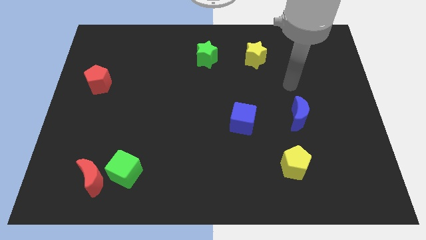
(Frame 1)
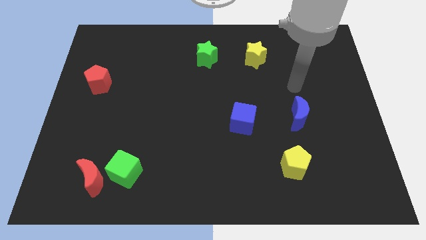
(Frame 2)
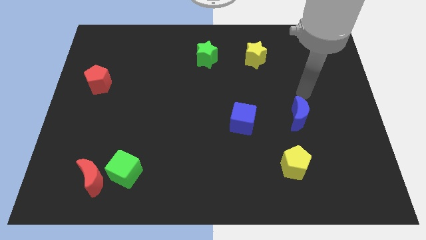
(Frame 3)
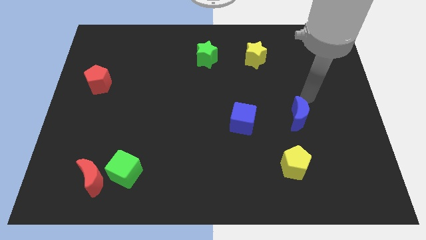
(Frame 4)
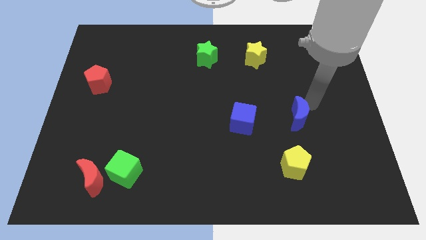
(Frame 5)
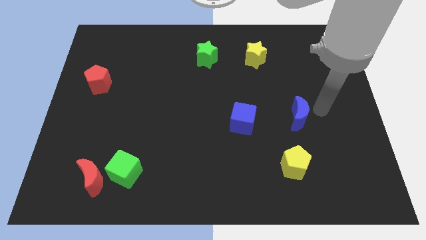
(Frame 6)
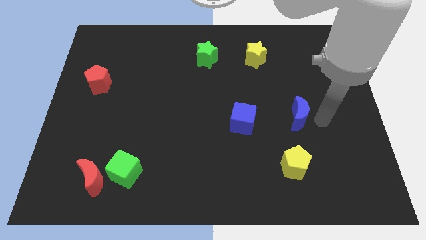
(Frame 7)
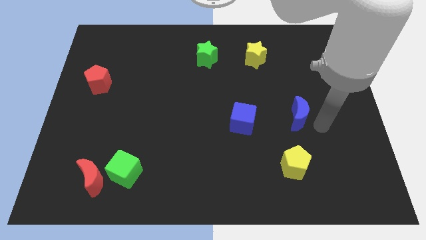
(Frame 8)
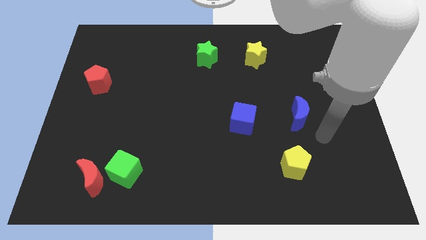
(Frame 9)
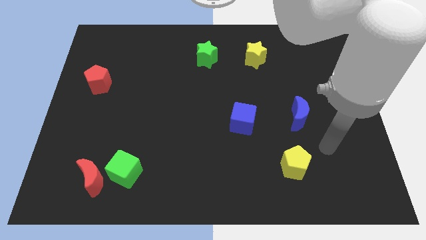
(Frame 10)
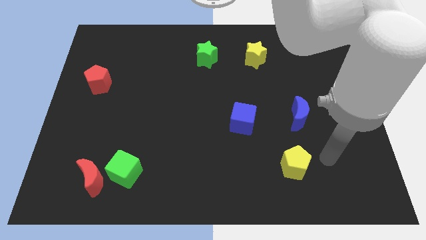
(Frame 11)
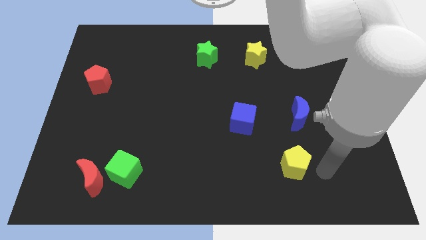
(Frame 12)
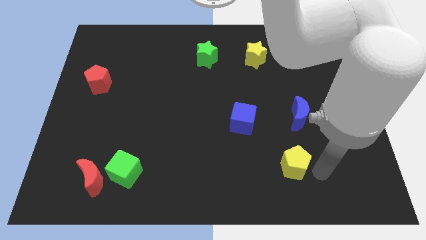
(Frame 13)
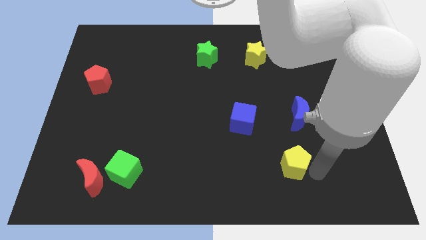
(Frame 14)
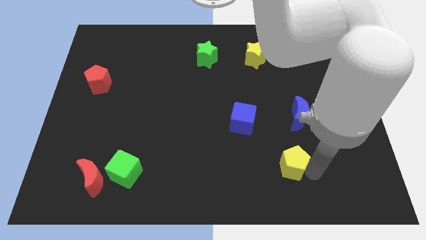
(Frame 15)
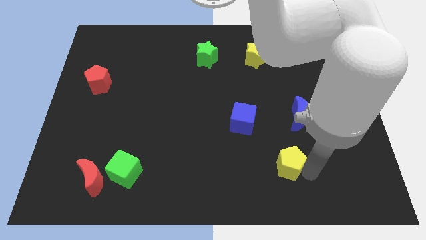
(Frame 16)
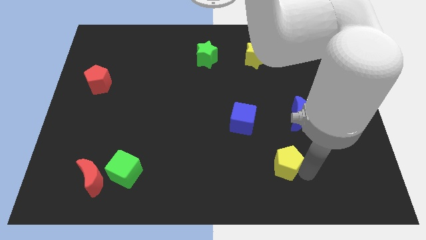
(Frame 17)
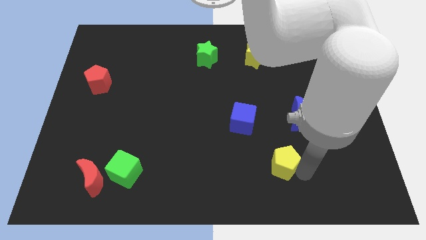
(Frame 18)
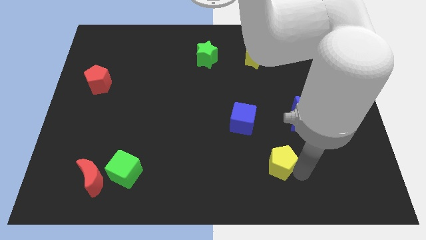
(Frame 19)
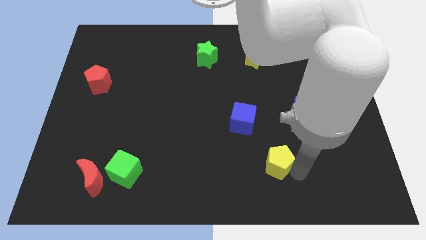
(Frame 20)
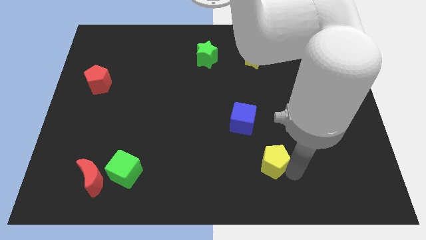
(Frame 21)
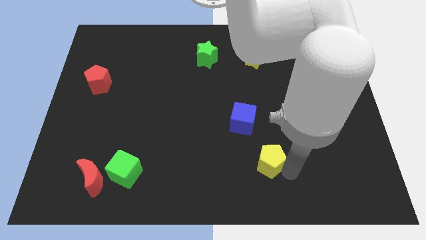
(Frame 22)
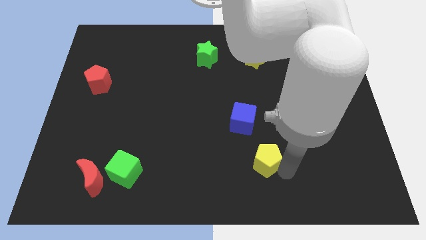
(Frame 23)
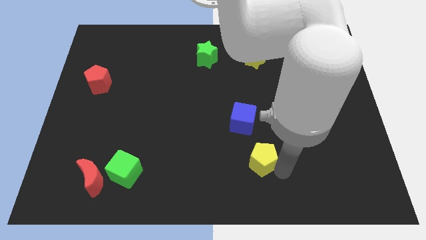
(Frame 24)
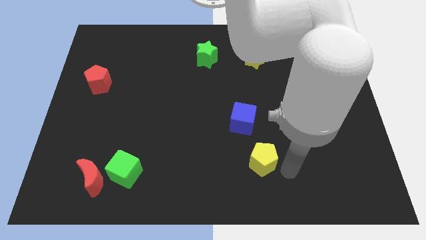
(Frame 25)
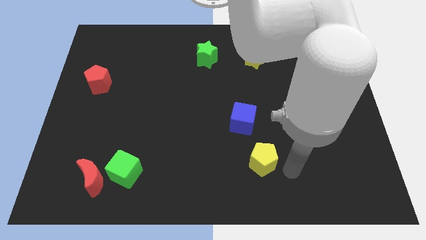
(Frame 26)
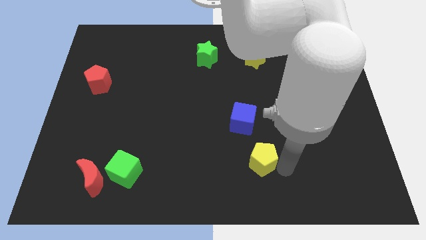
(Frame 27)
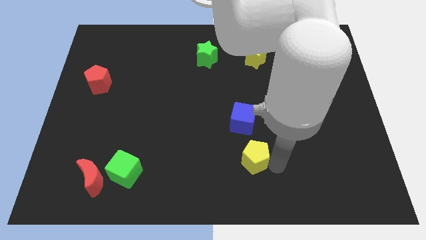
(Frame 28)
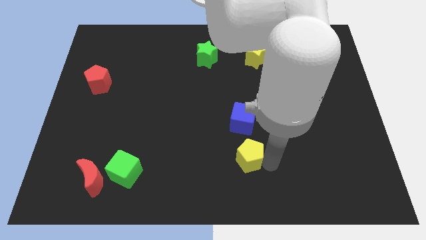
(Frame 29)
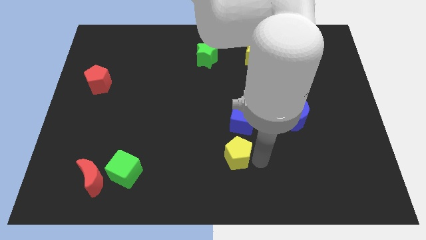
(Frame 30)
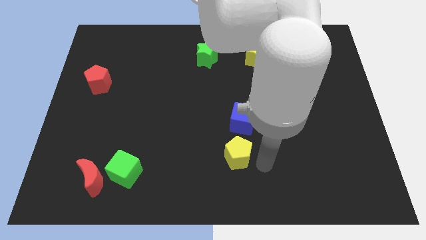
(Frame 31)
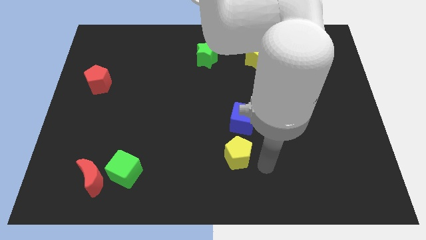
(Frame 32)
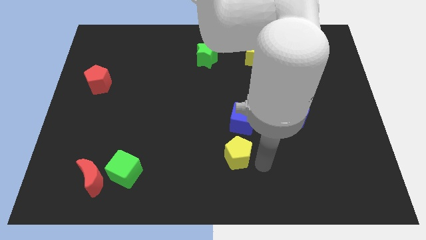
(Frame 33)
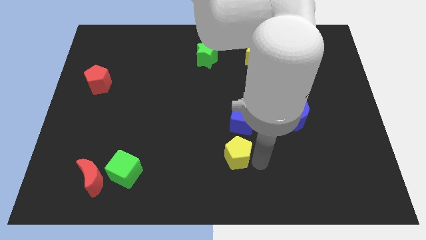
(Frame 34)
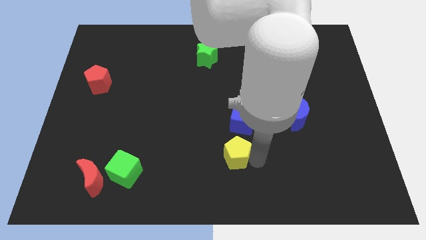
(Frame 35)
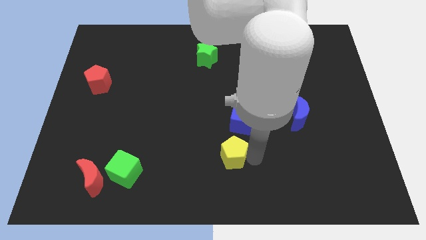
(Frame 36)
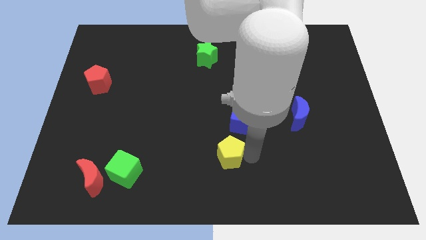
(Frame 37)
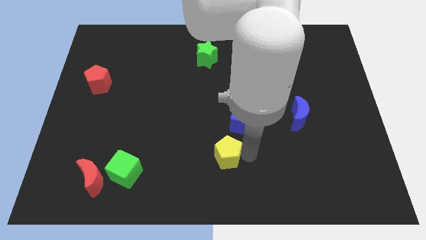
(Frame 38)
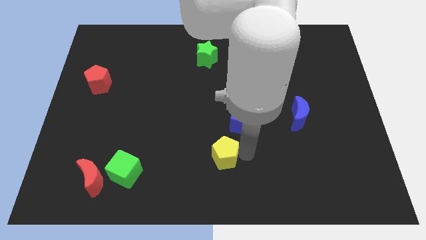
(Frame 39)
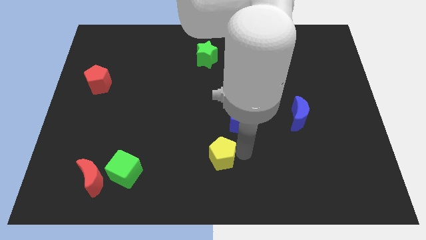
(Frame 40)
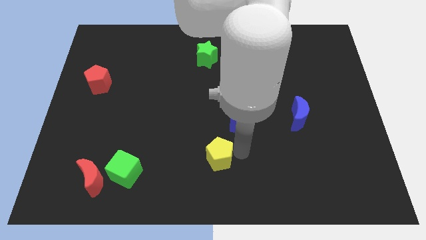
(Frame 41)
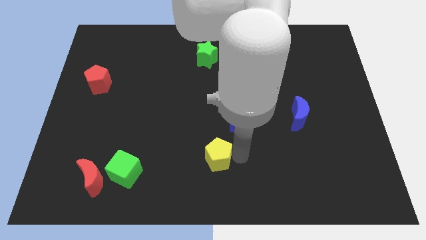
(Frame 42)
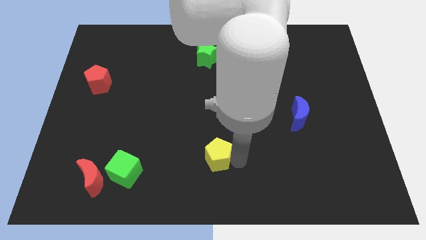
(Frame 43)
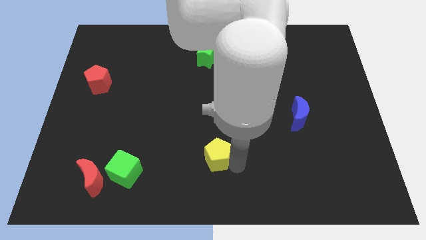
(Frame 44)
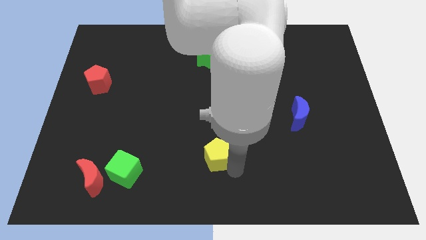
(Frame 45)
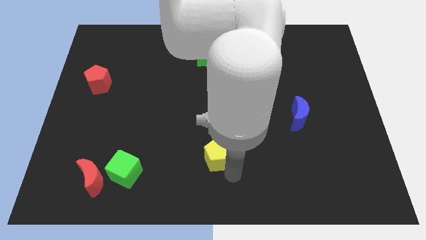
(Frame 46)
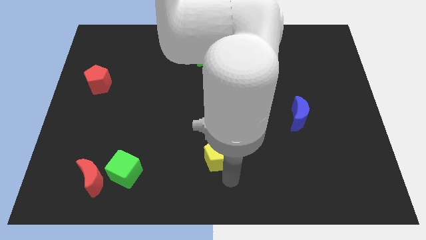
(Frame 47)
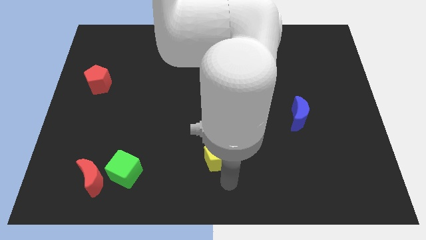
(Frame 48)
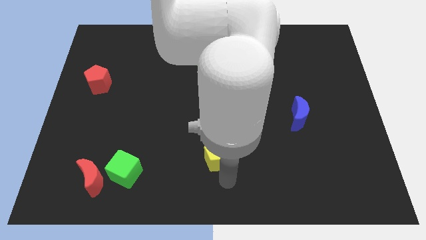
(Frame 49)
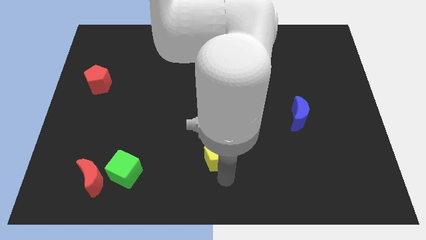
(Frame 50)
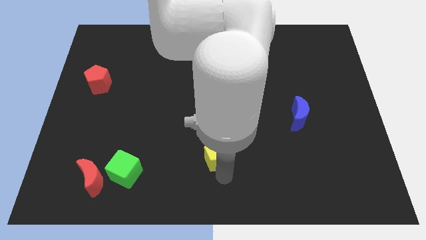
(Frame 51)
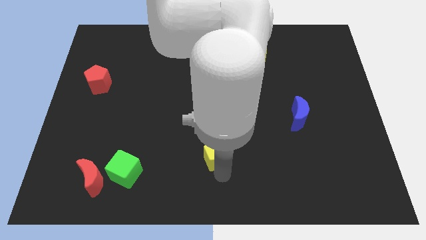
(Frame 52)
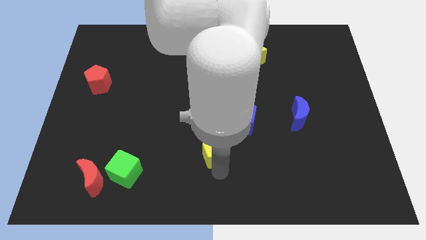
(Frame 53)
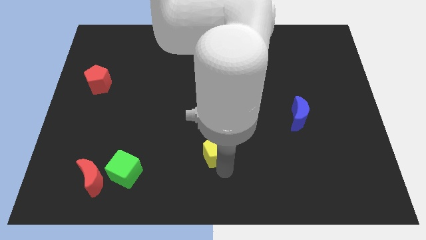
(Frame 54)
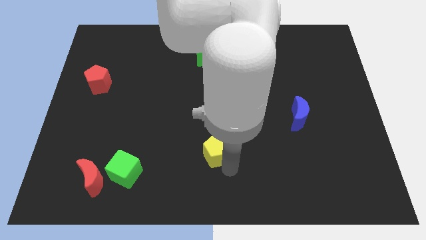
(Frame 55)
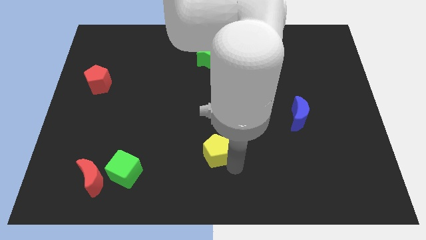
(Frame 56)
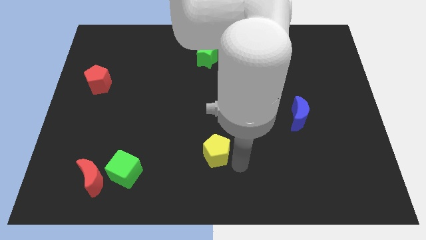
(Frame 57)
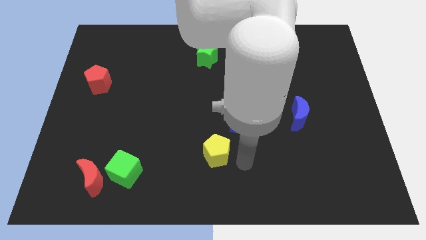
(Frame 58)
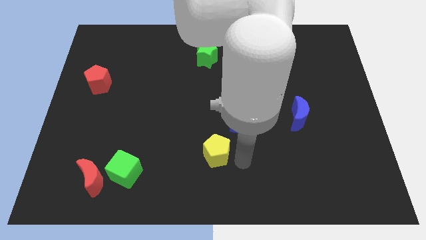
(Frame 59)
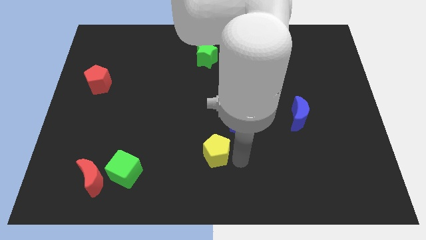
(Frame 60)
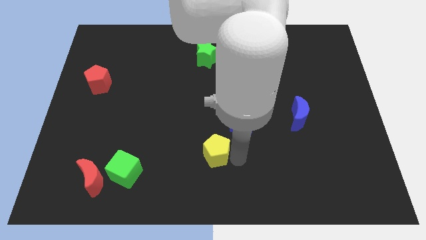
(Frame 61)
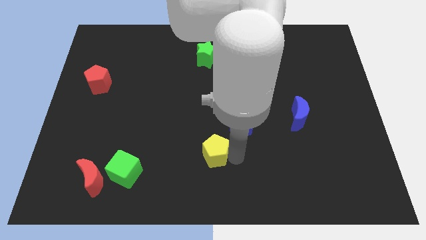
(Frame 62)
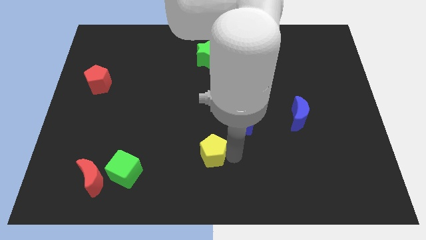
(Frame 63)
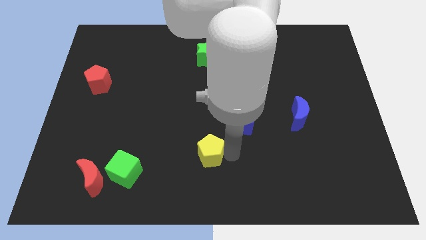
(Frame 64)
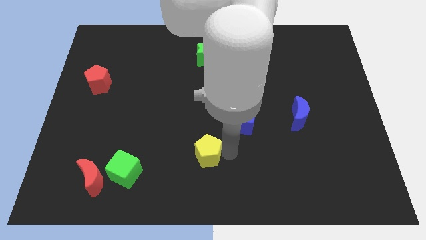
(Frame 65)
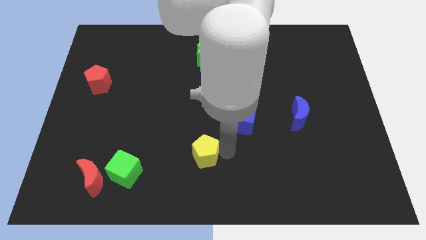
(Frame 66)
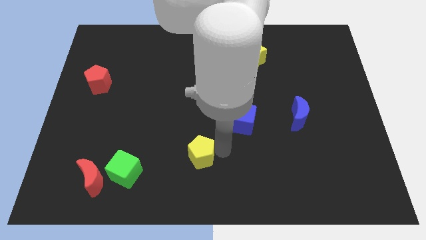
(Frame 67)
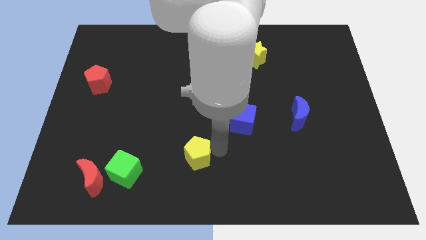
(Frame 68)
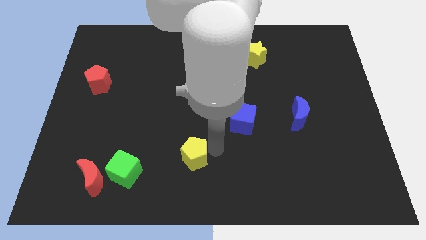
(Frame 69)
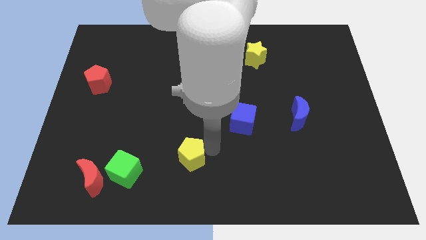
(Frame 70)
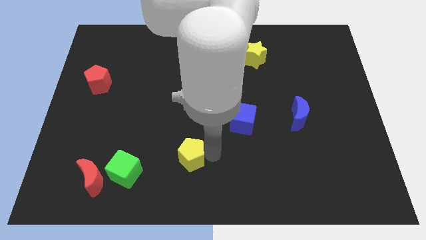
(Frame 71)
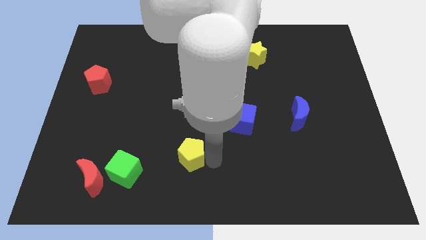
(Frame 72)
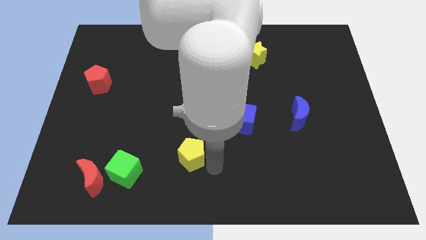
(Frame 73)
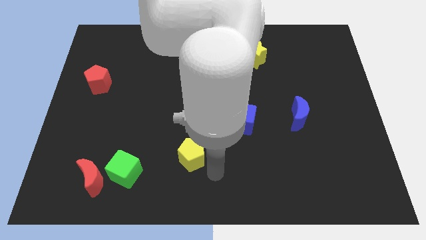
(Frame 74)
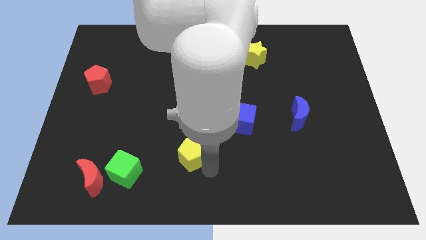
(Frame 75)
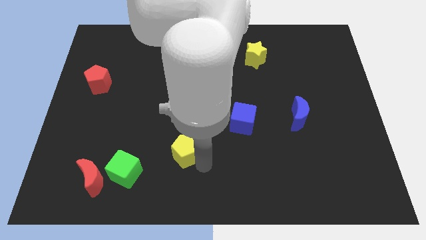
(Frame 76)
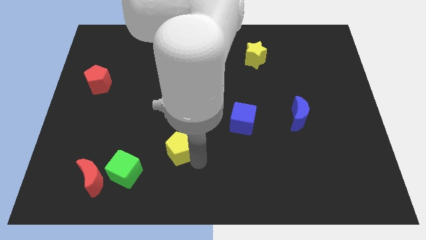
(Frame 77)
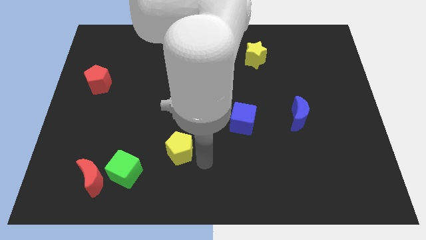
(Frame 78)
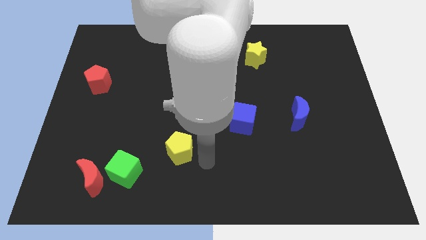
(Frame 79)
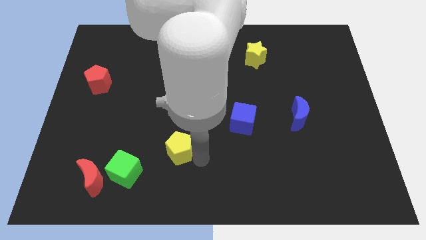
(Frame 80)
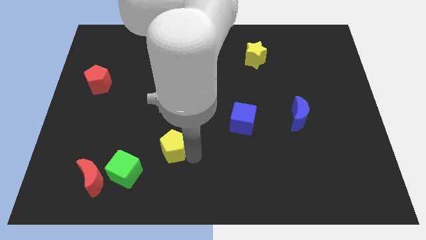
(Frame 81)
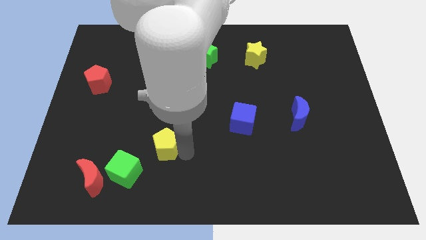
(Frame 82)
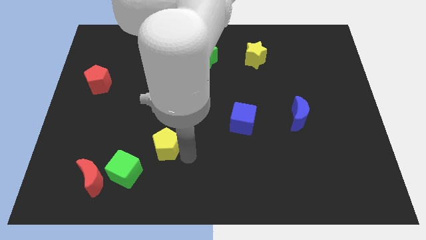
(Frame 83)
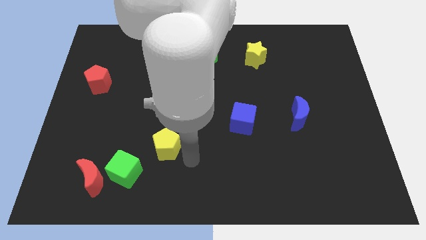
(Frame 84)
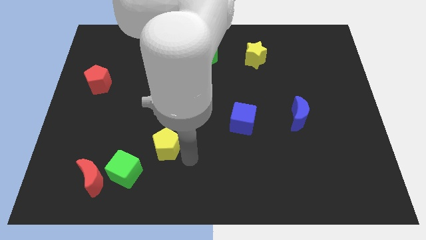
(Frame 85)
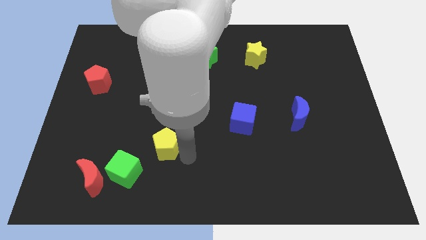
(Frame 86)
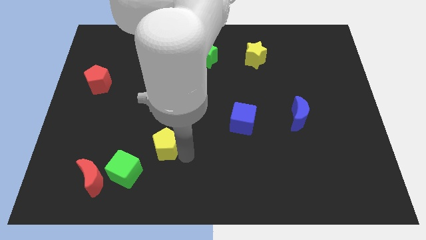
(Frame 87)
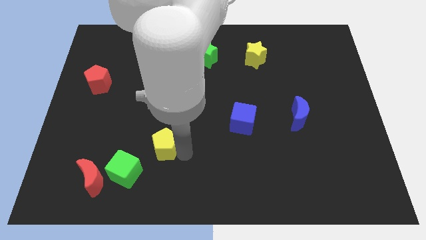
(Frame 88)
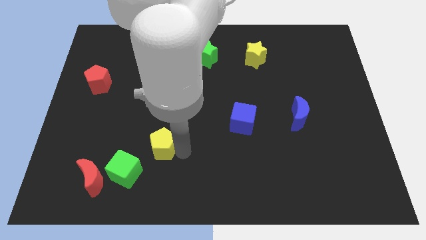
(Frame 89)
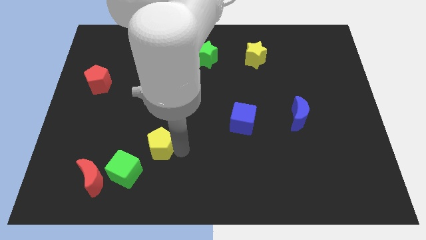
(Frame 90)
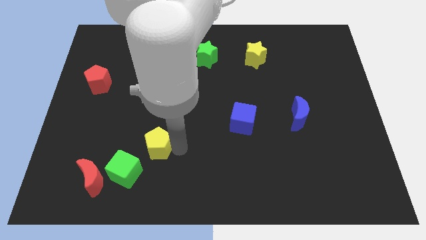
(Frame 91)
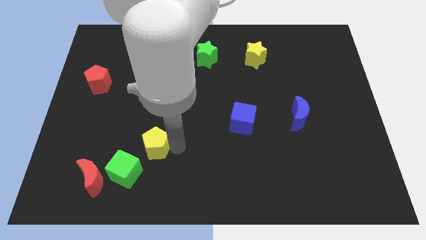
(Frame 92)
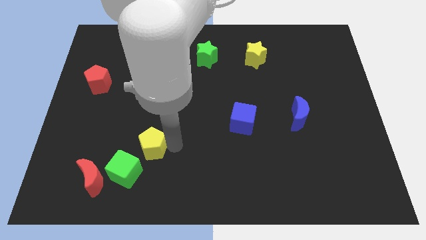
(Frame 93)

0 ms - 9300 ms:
put the yellow pentagon above the green cube
